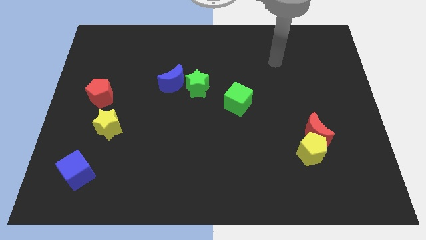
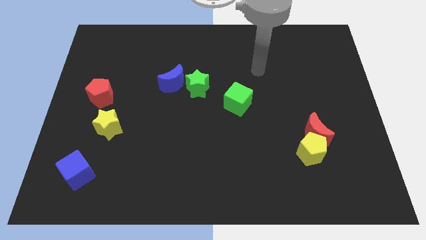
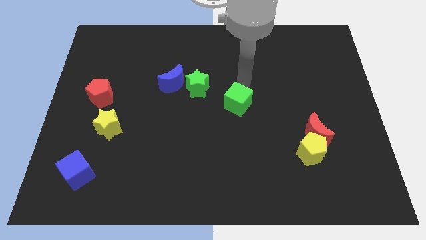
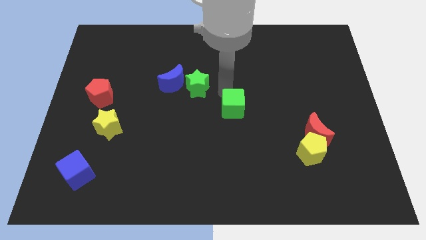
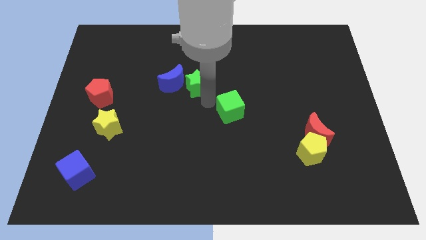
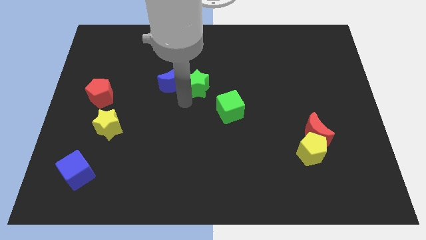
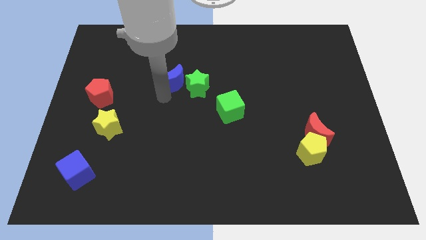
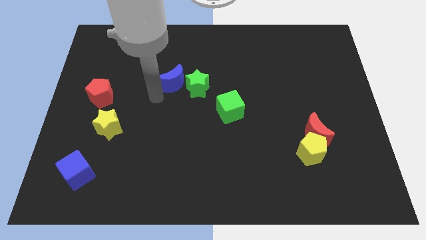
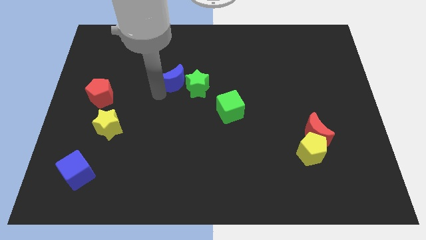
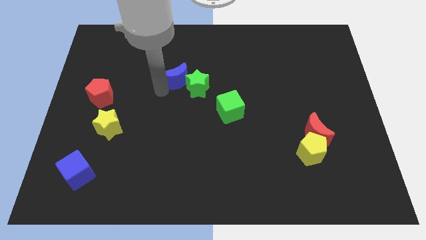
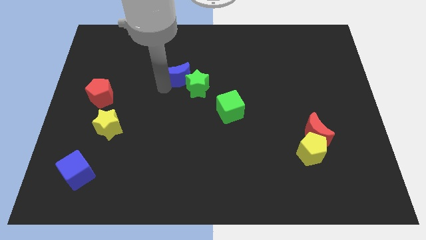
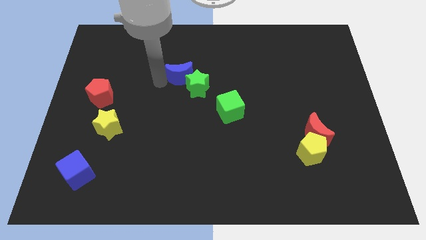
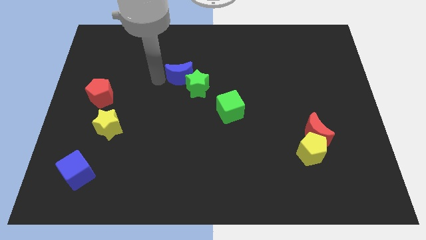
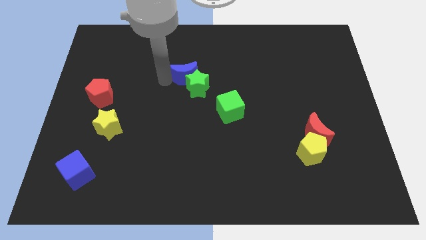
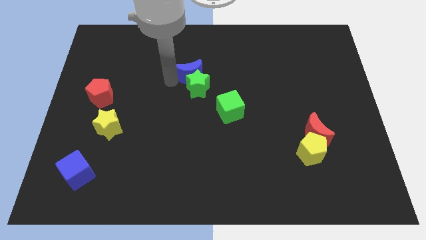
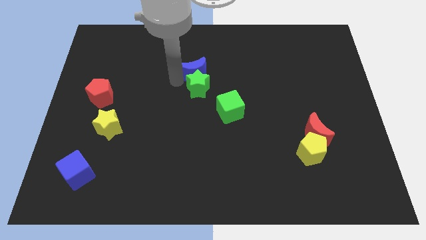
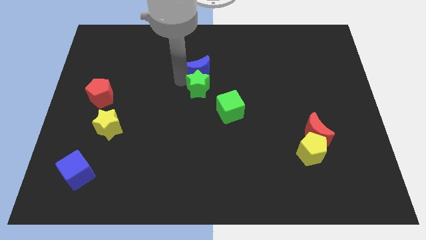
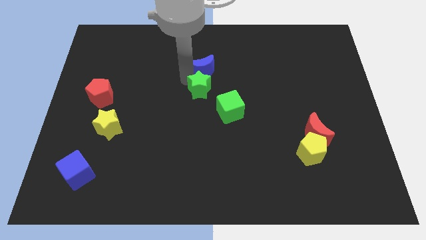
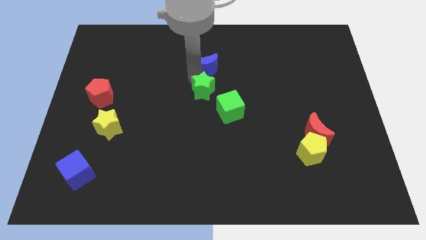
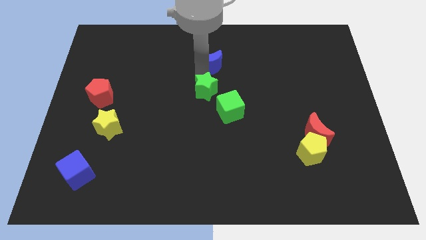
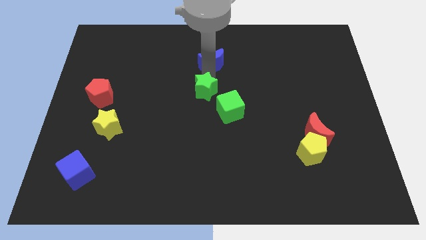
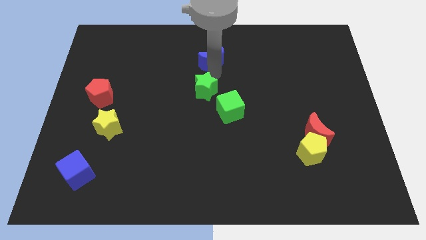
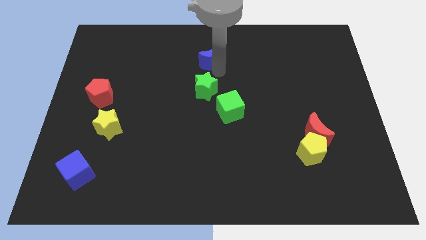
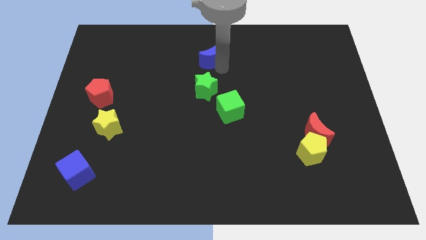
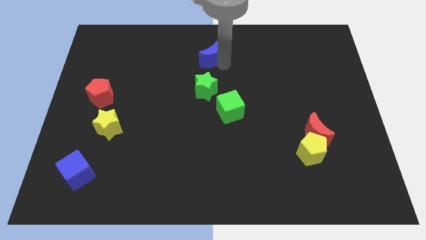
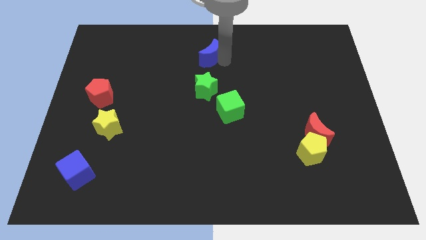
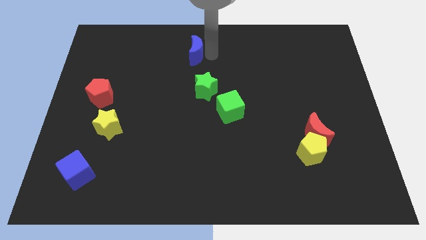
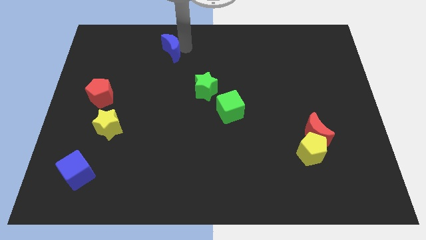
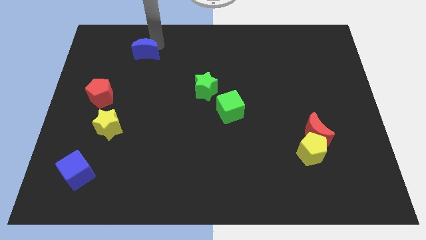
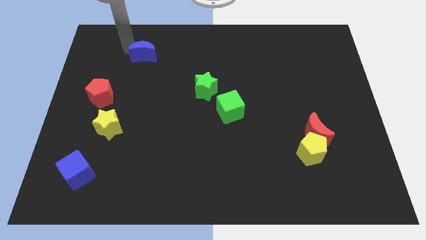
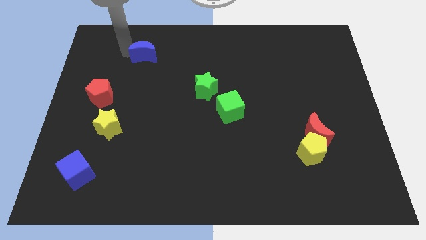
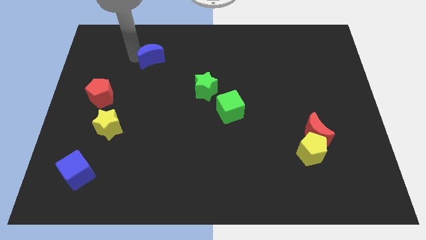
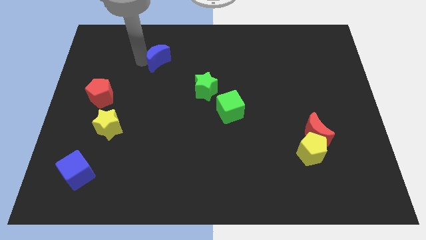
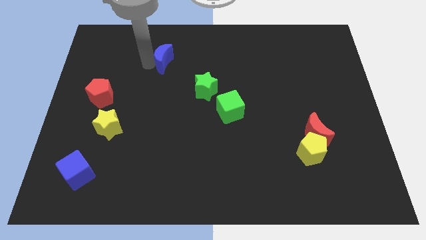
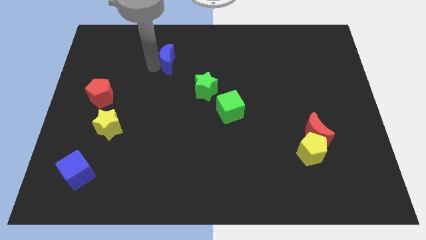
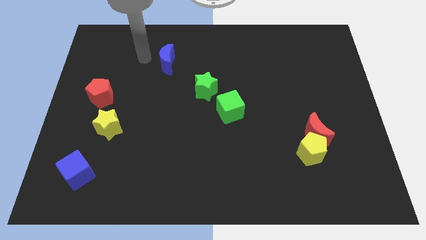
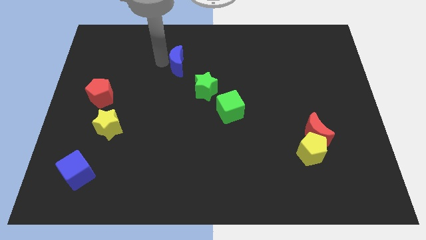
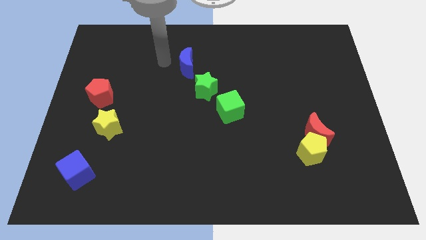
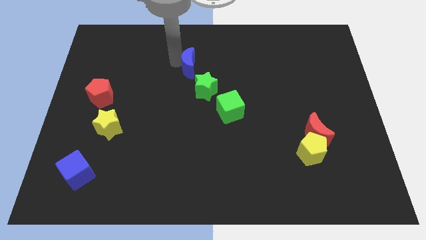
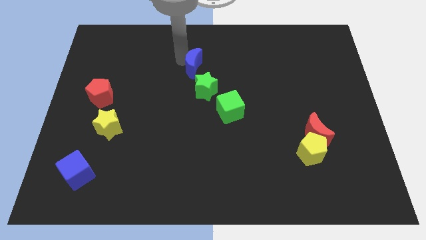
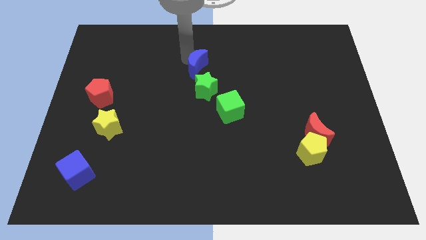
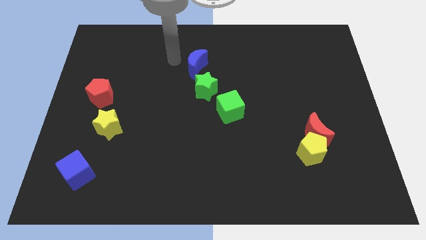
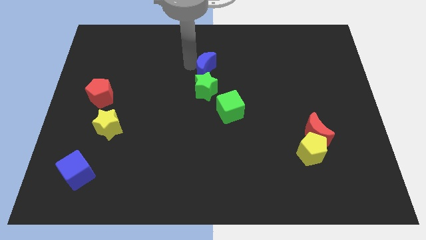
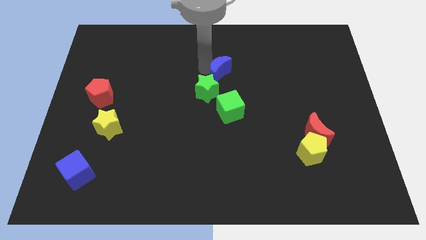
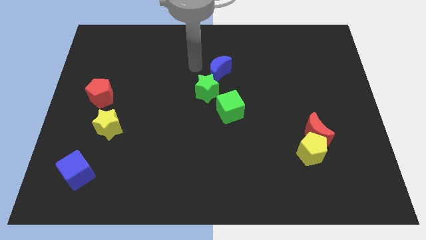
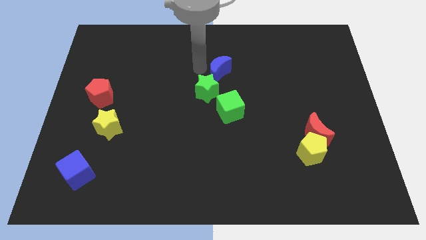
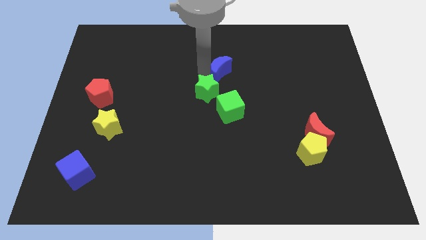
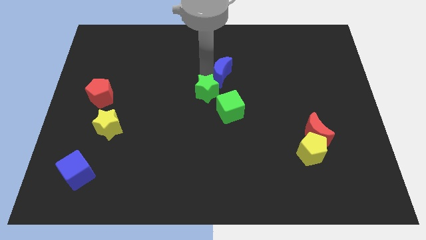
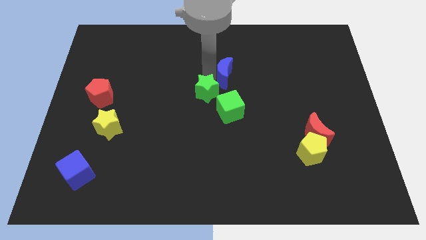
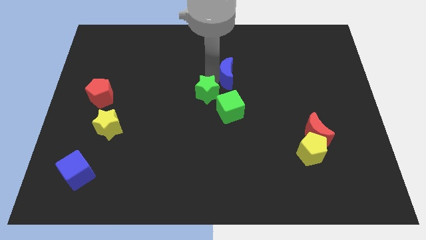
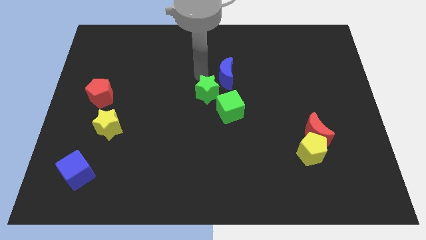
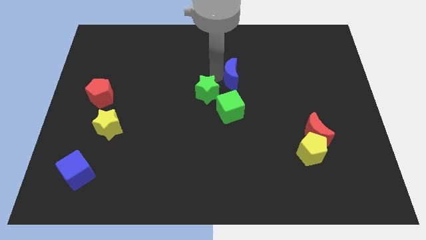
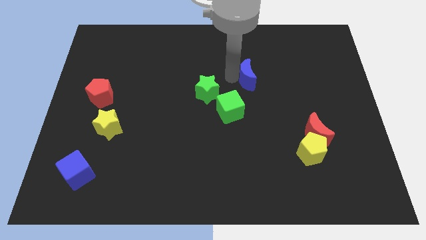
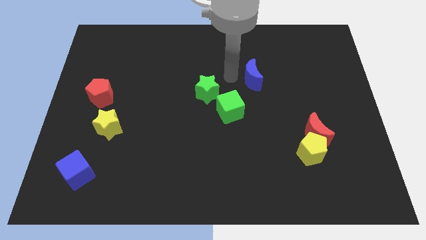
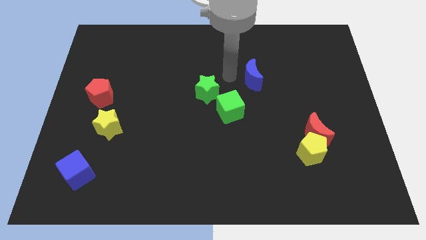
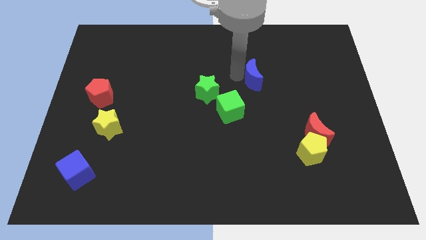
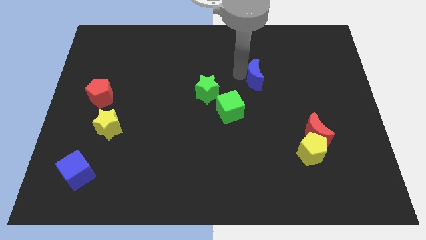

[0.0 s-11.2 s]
move the blue moon to the right

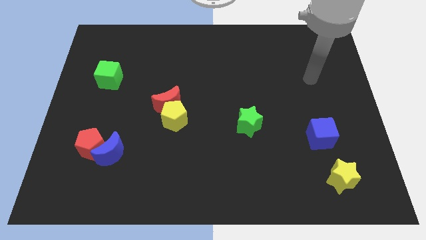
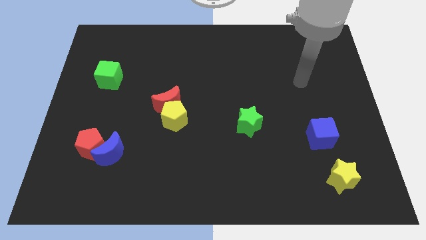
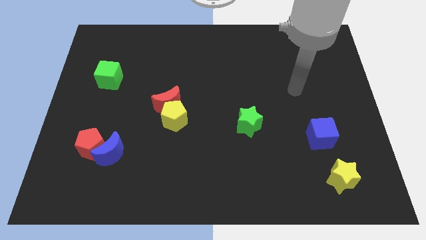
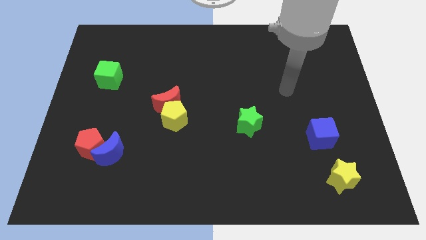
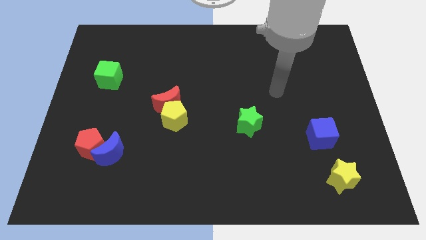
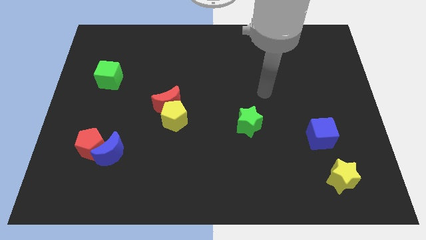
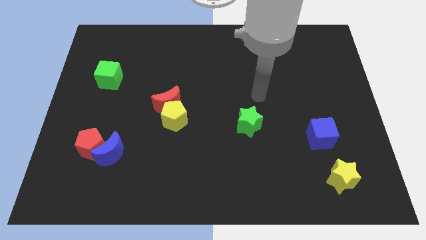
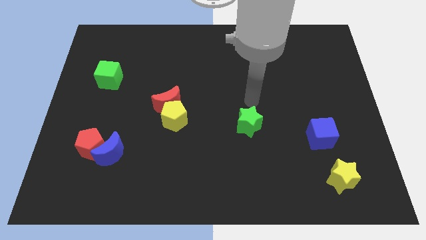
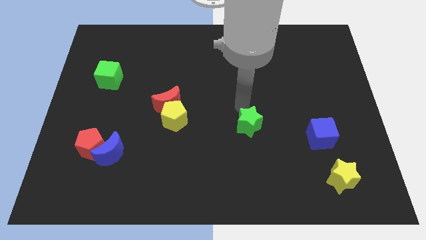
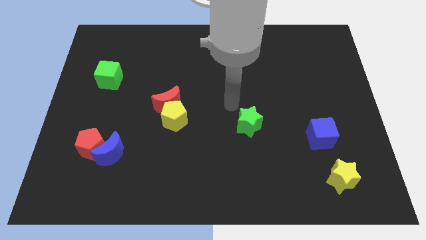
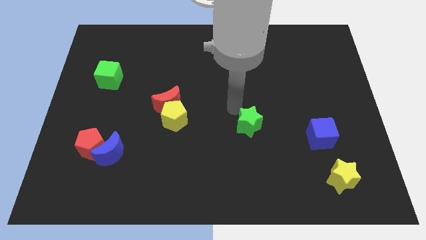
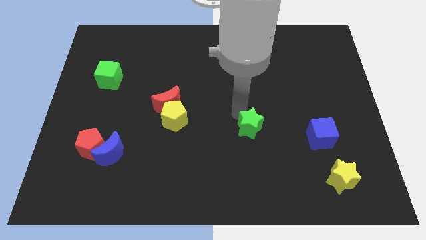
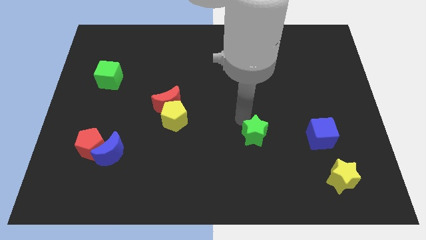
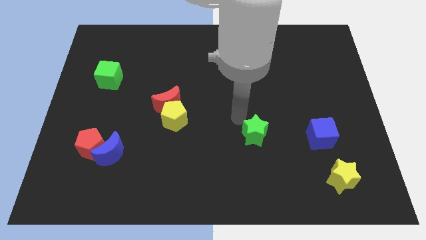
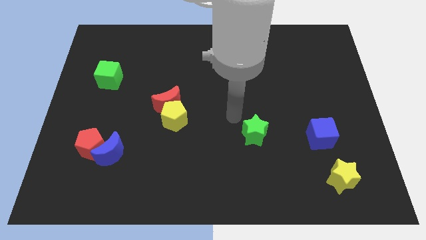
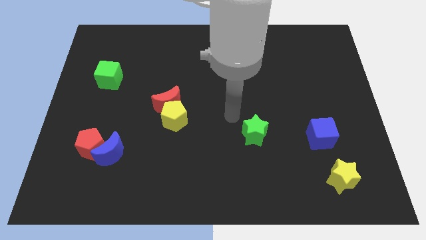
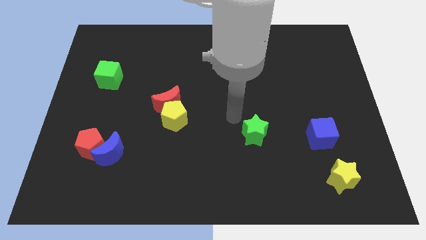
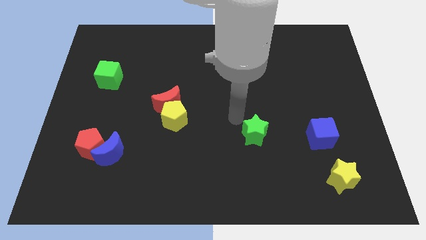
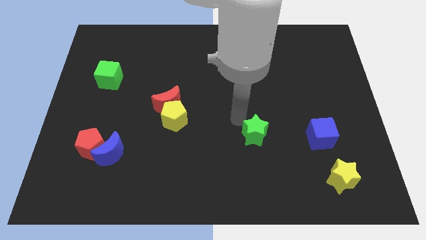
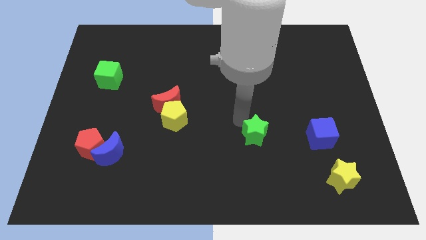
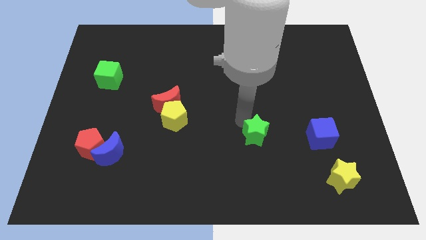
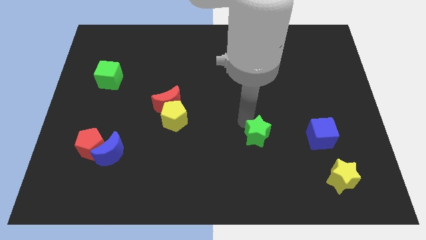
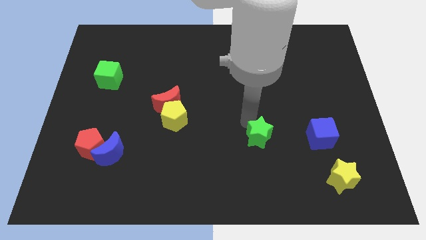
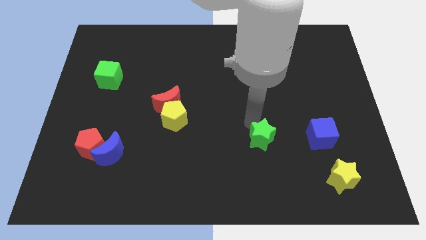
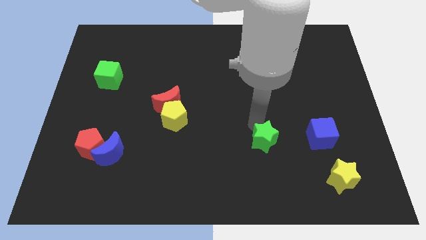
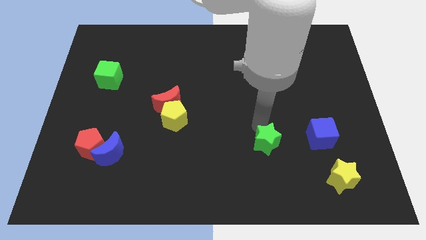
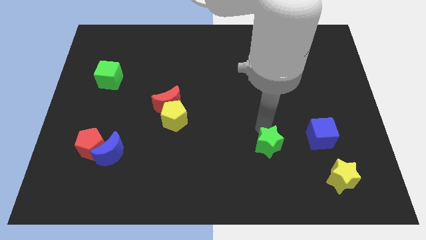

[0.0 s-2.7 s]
move the green star diagonally down and to the right a bit
